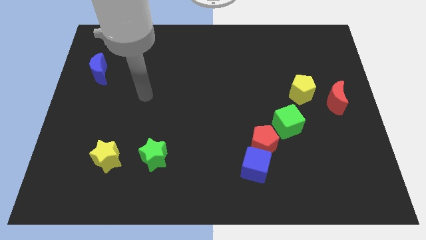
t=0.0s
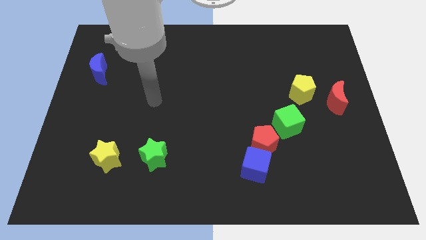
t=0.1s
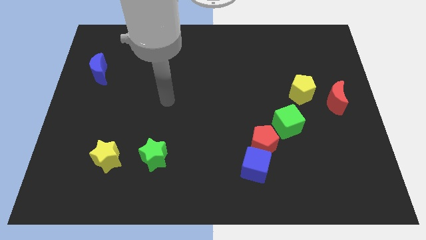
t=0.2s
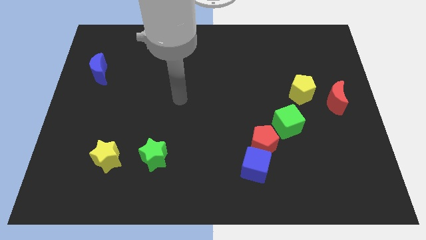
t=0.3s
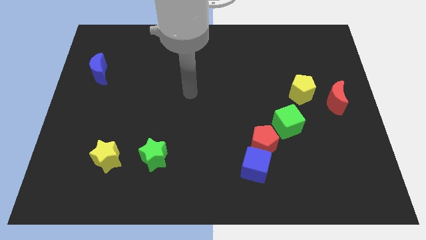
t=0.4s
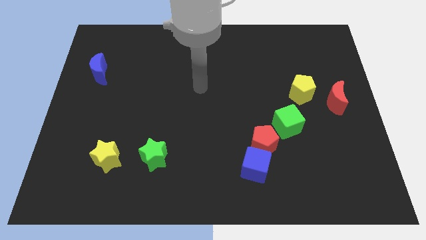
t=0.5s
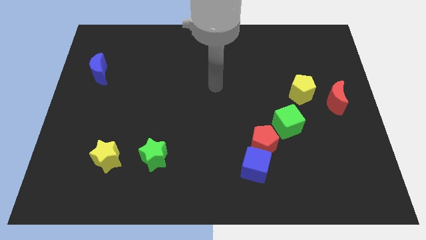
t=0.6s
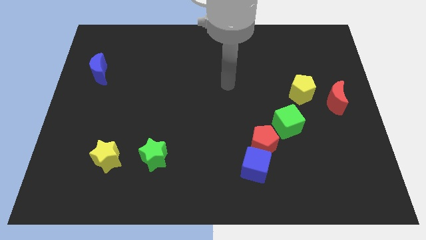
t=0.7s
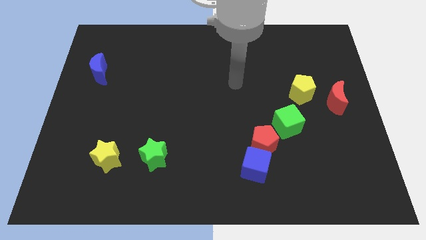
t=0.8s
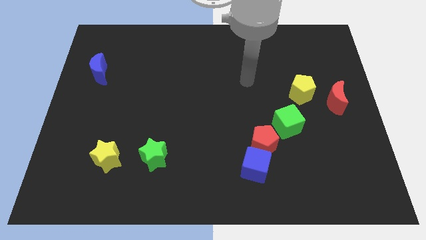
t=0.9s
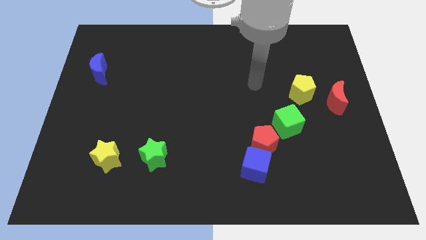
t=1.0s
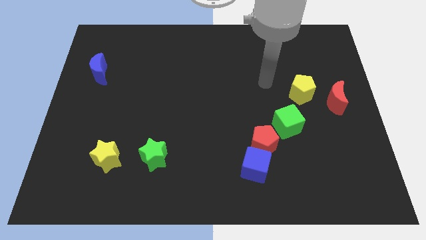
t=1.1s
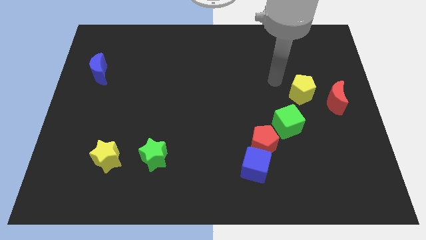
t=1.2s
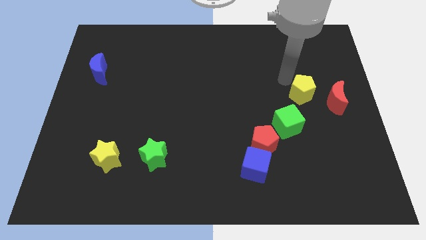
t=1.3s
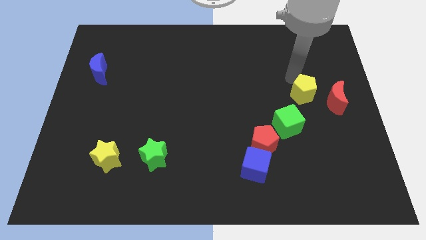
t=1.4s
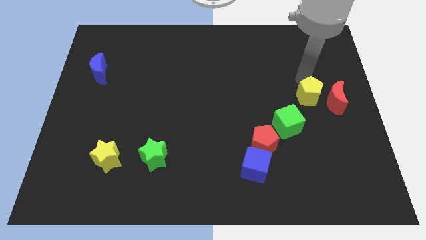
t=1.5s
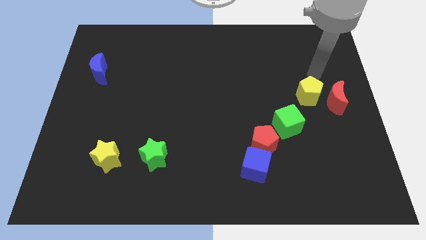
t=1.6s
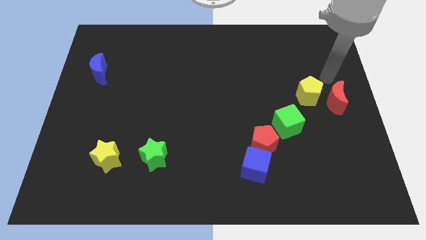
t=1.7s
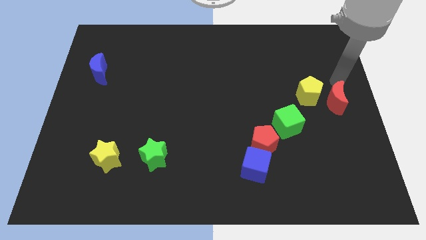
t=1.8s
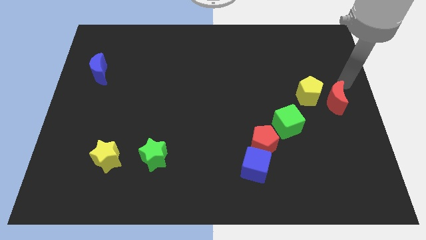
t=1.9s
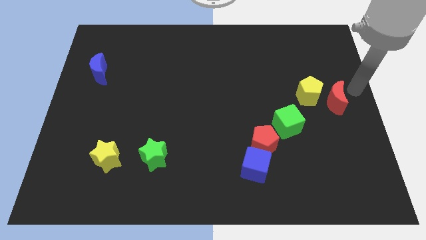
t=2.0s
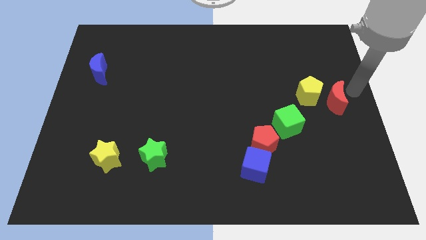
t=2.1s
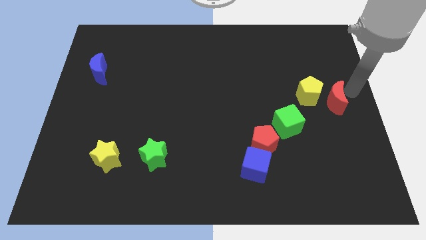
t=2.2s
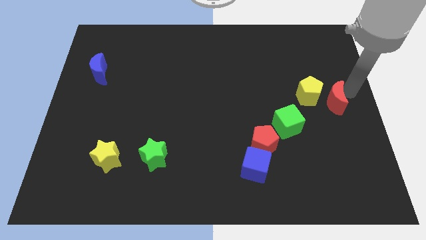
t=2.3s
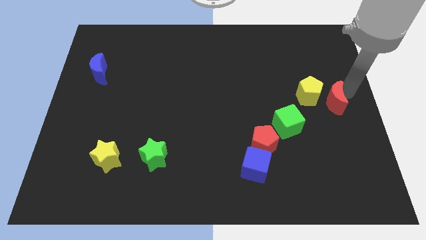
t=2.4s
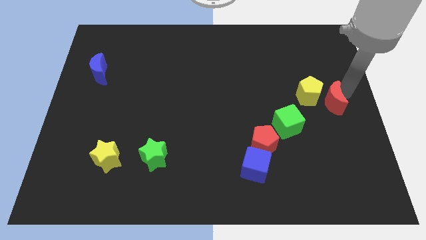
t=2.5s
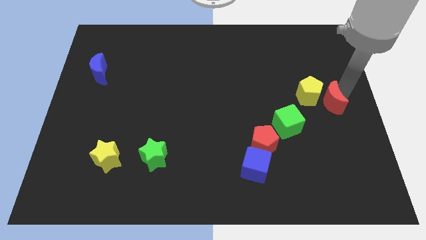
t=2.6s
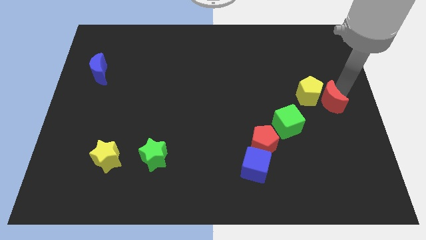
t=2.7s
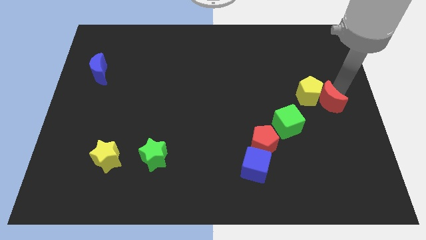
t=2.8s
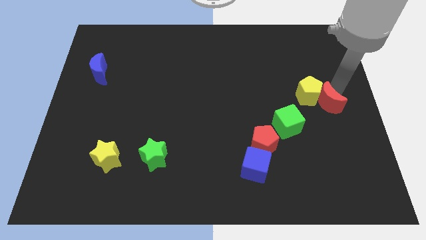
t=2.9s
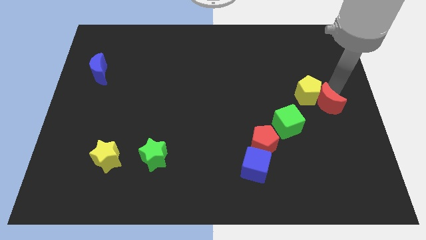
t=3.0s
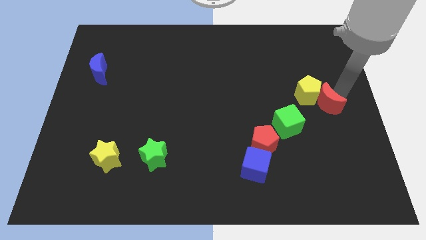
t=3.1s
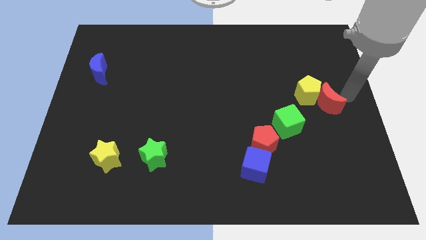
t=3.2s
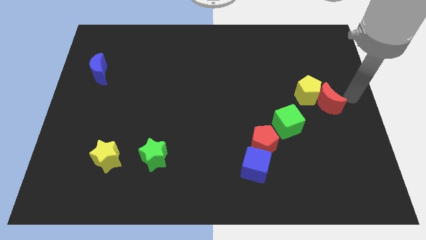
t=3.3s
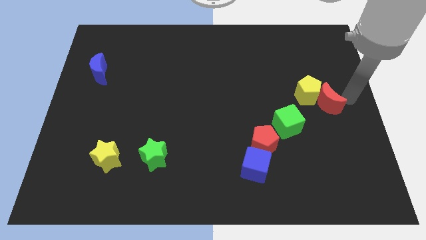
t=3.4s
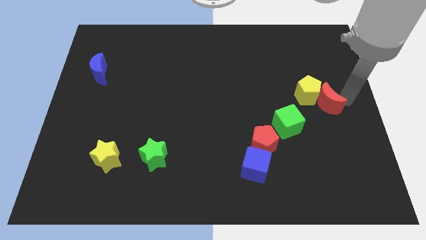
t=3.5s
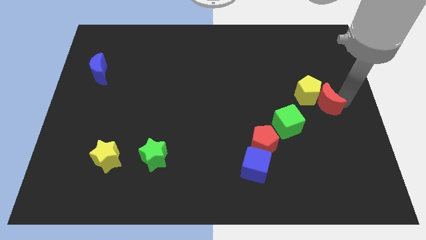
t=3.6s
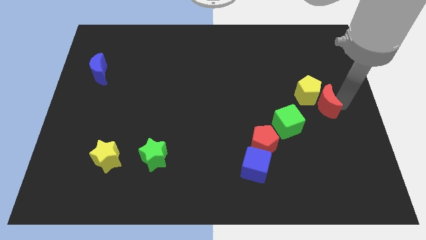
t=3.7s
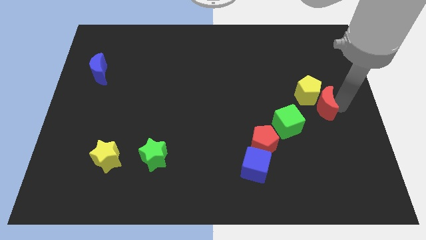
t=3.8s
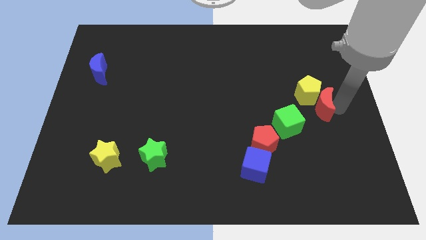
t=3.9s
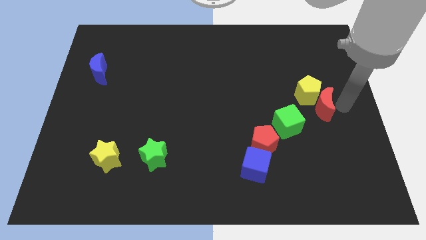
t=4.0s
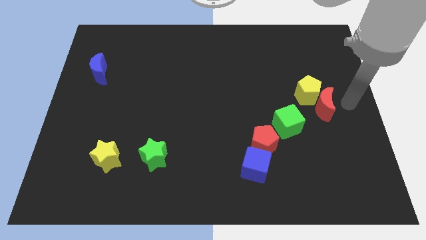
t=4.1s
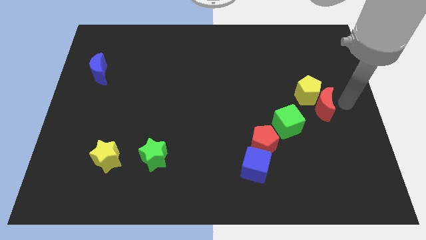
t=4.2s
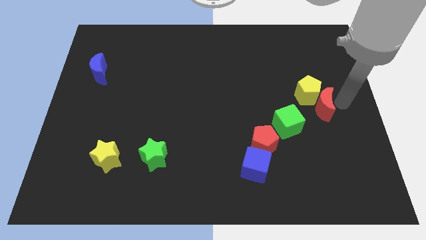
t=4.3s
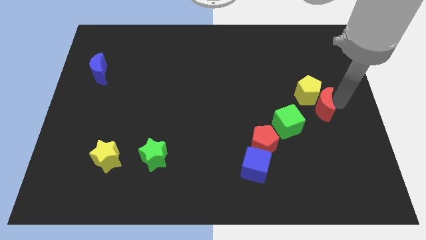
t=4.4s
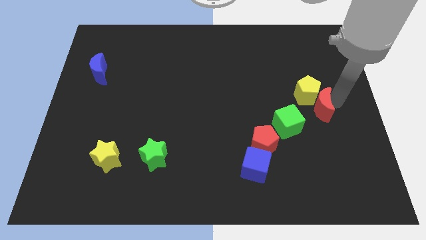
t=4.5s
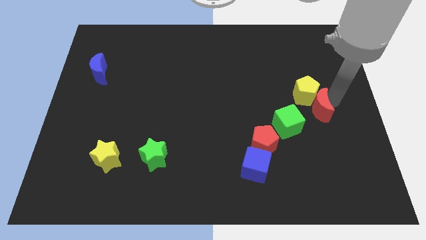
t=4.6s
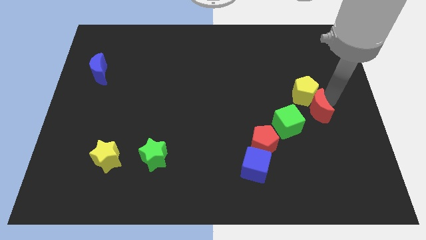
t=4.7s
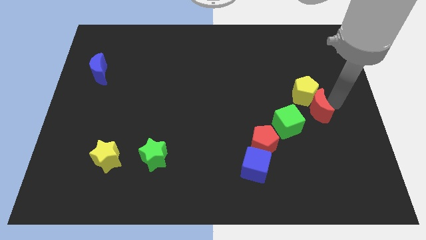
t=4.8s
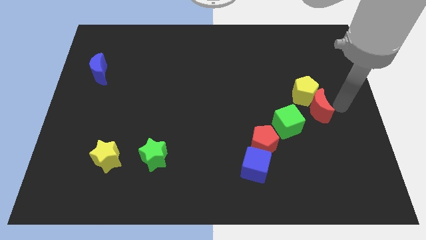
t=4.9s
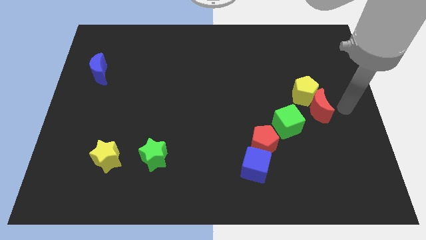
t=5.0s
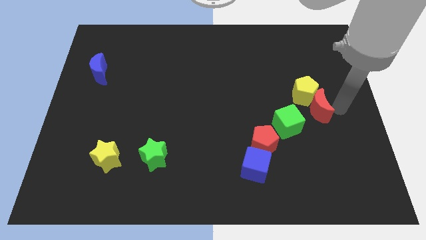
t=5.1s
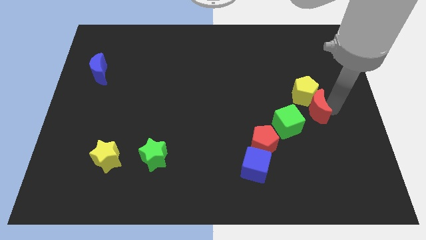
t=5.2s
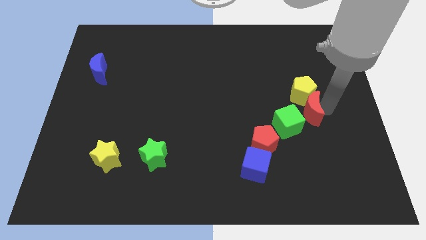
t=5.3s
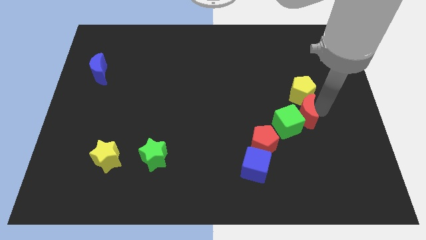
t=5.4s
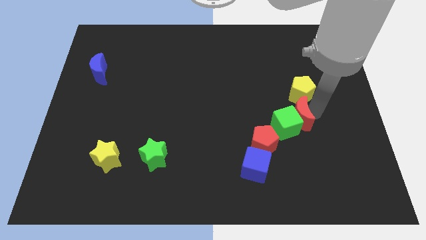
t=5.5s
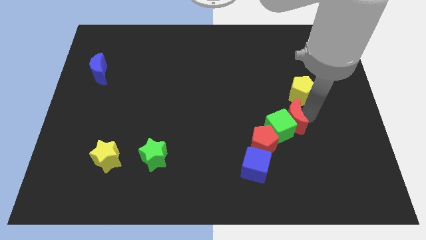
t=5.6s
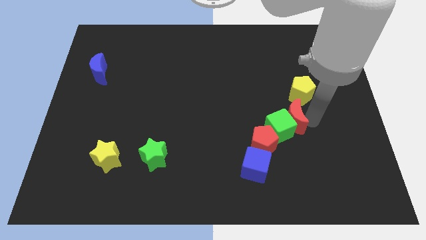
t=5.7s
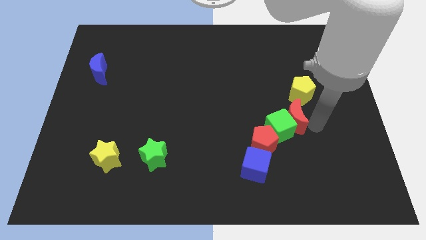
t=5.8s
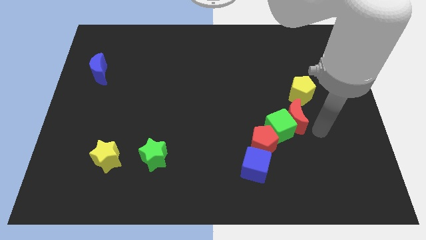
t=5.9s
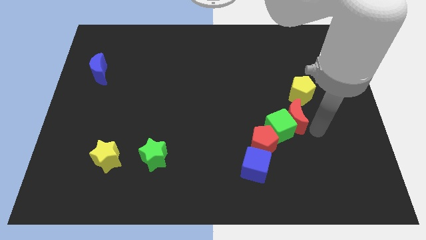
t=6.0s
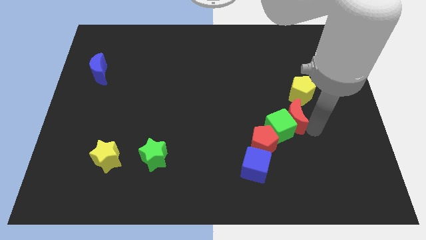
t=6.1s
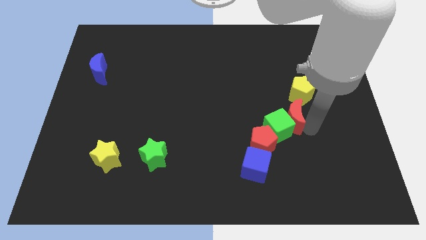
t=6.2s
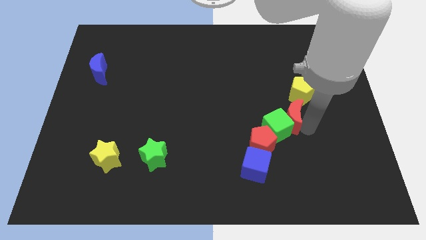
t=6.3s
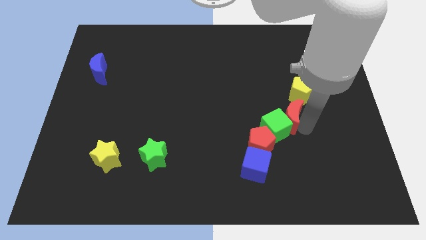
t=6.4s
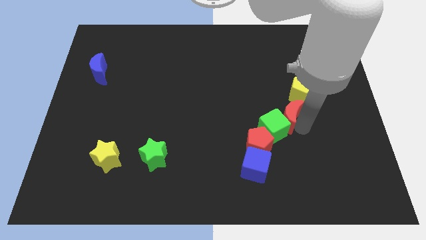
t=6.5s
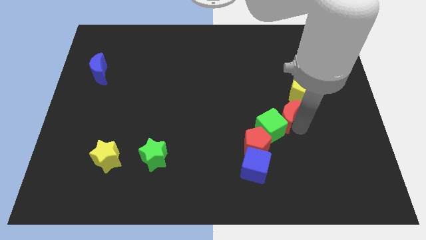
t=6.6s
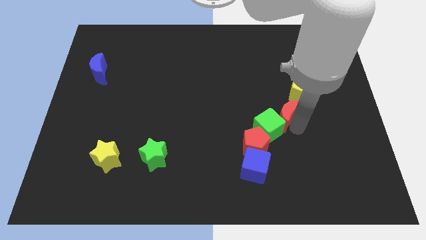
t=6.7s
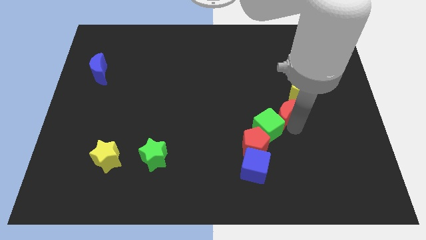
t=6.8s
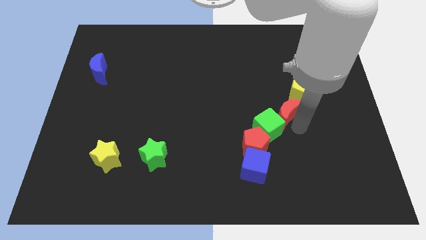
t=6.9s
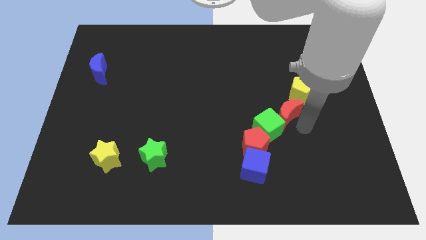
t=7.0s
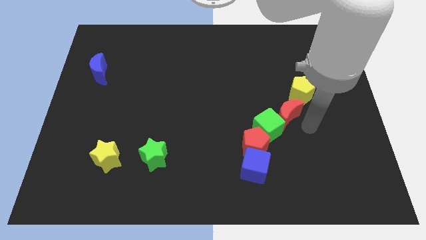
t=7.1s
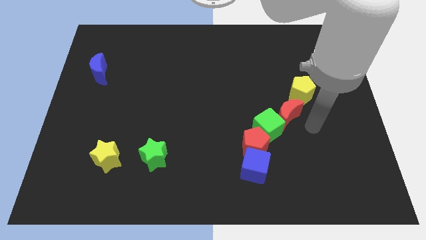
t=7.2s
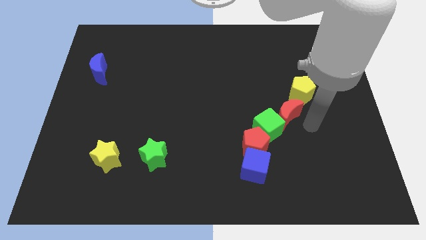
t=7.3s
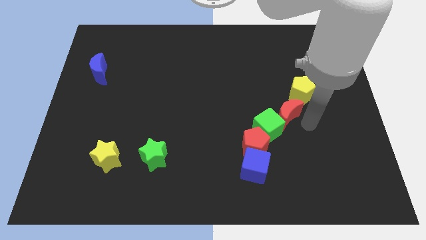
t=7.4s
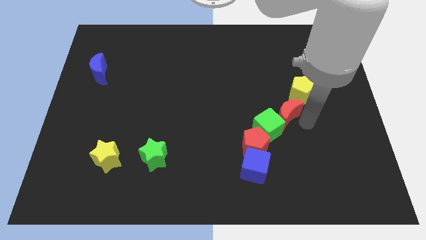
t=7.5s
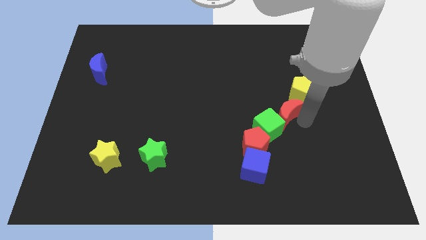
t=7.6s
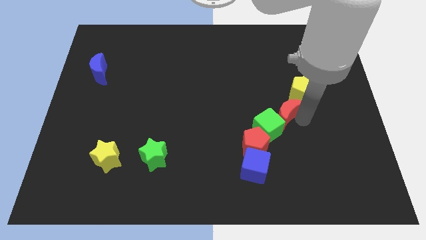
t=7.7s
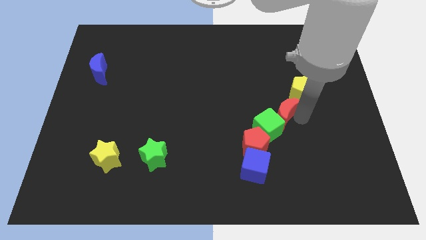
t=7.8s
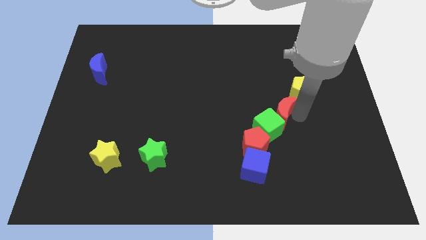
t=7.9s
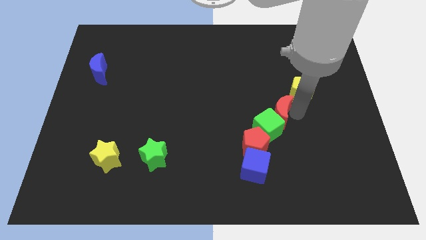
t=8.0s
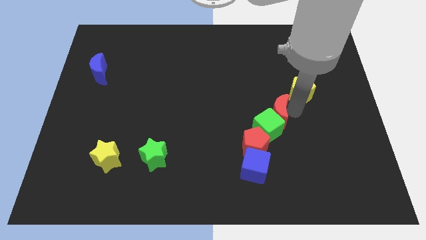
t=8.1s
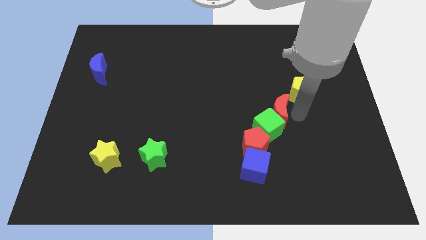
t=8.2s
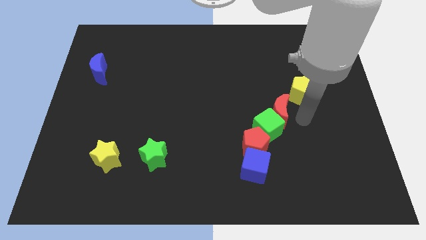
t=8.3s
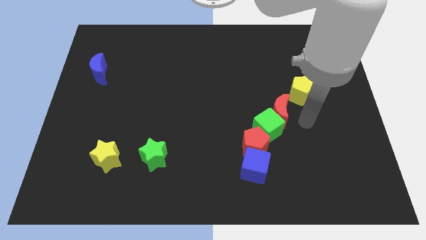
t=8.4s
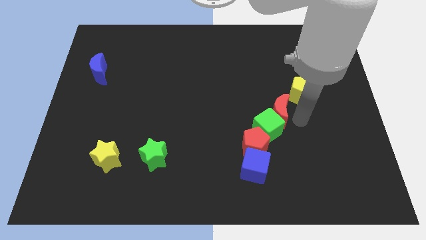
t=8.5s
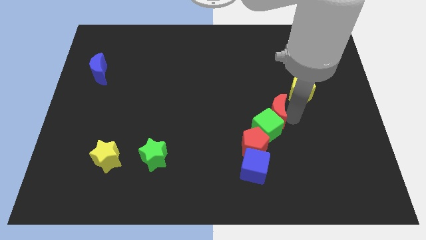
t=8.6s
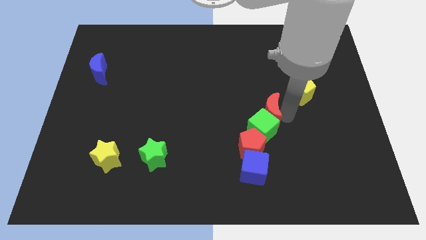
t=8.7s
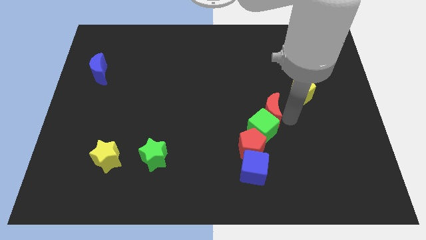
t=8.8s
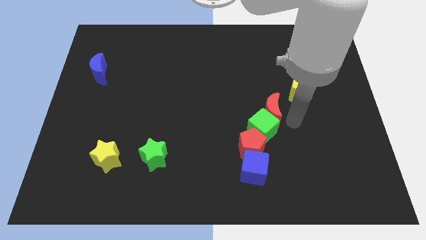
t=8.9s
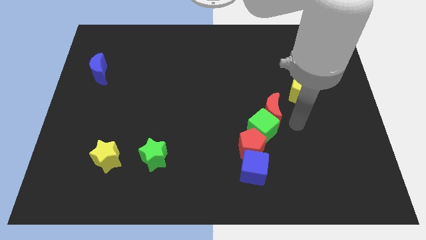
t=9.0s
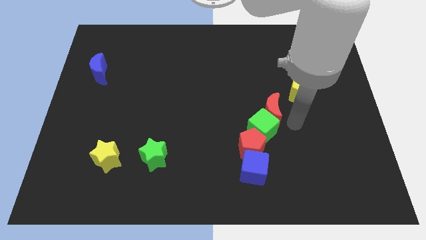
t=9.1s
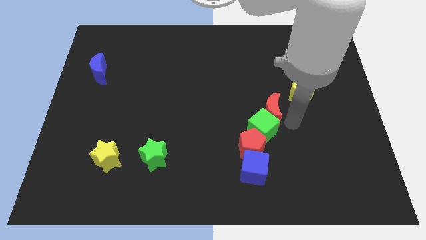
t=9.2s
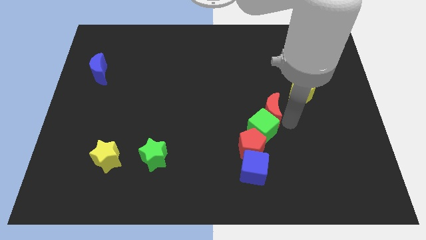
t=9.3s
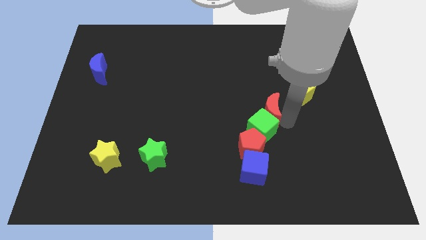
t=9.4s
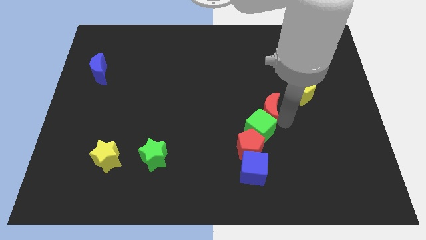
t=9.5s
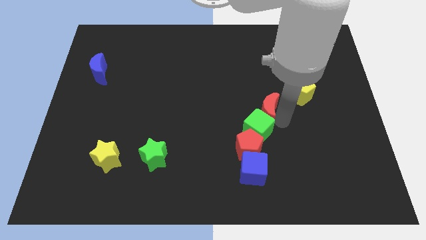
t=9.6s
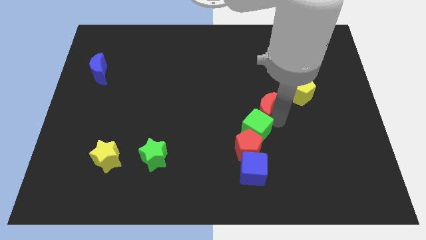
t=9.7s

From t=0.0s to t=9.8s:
put the red moon to the center
